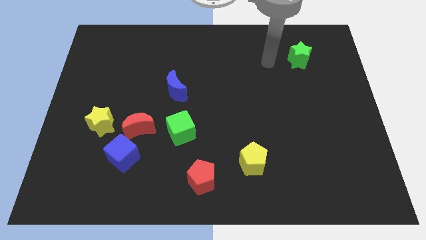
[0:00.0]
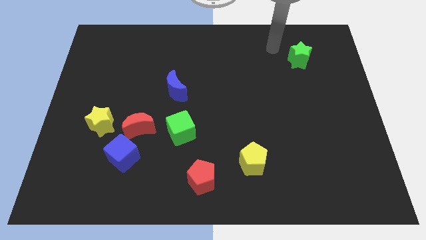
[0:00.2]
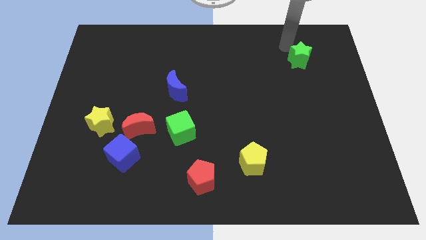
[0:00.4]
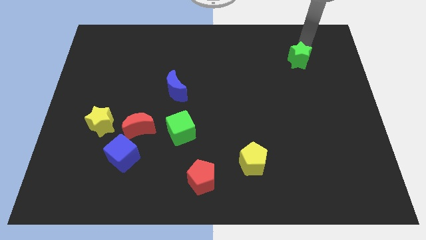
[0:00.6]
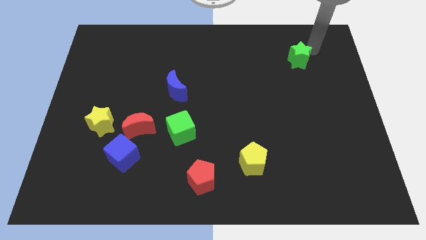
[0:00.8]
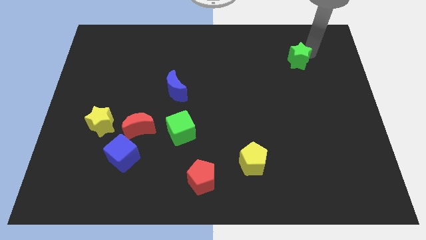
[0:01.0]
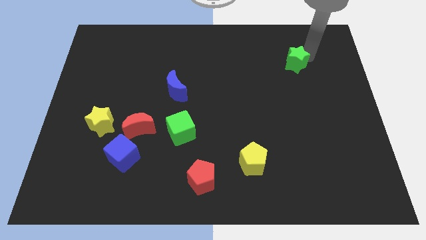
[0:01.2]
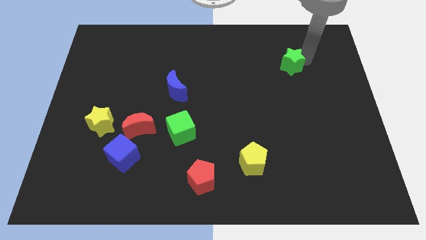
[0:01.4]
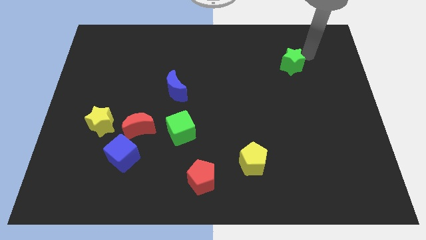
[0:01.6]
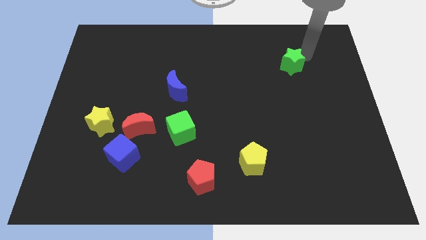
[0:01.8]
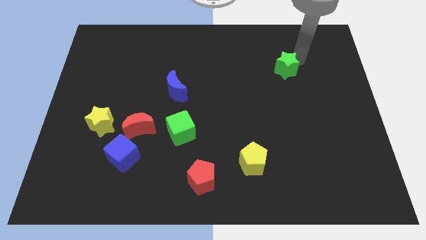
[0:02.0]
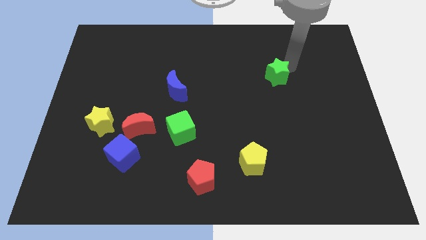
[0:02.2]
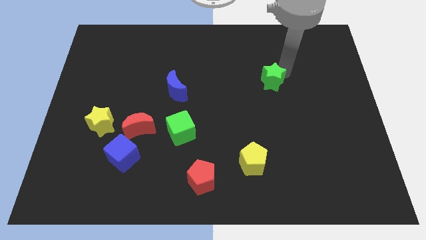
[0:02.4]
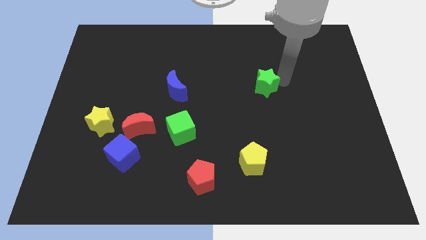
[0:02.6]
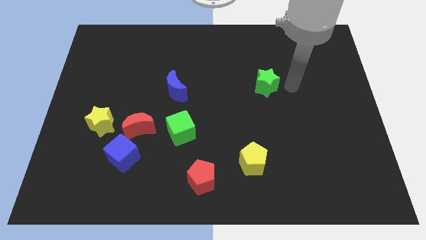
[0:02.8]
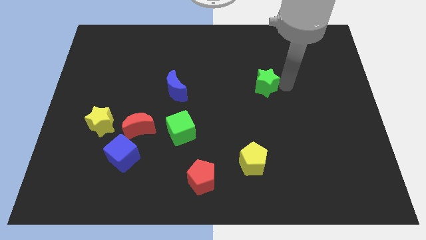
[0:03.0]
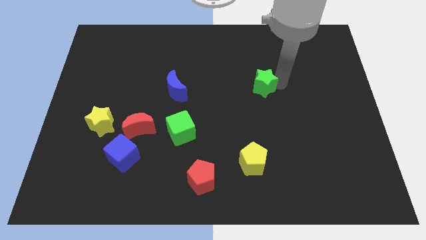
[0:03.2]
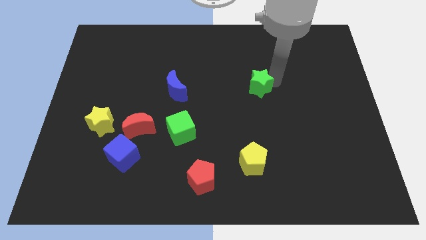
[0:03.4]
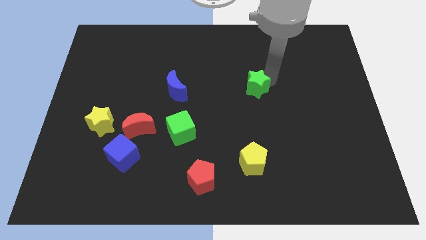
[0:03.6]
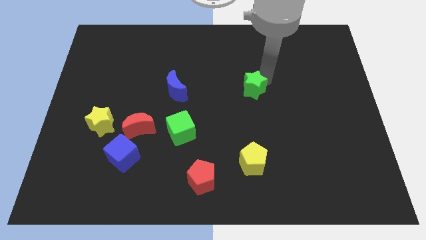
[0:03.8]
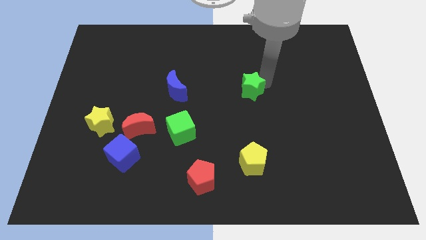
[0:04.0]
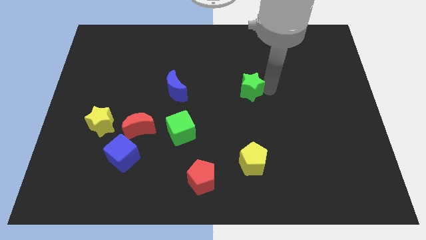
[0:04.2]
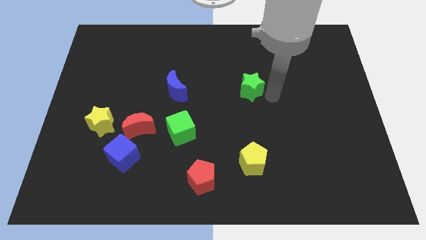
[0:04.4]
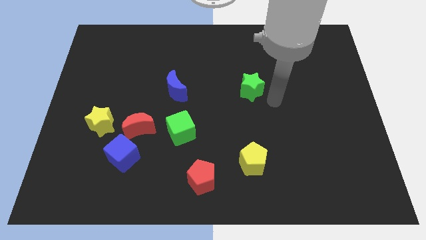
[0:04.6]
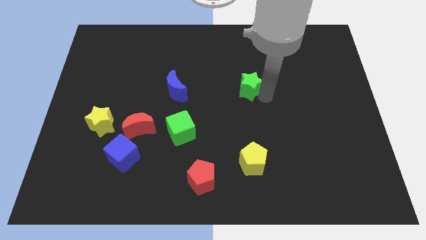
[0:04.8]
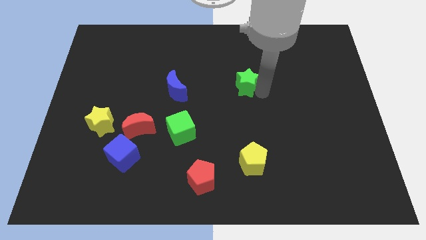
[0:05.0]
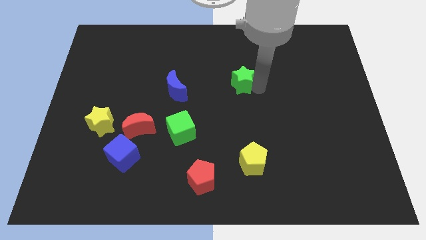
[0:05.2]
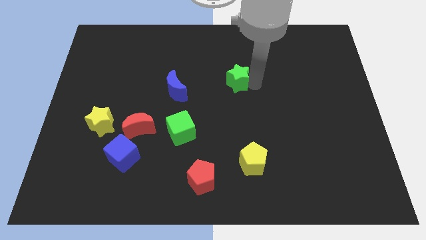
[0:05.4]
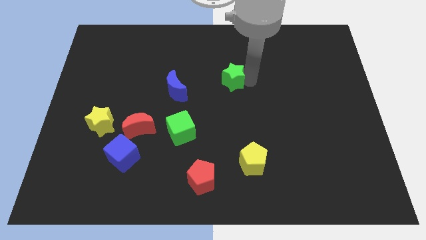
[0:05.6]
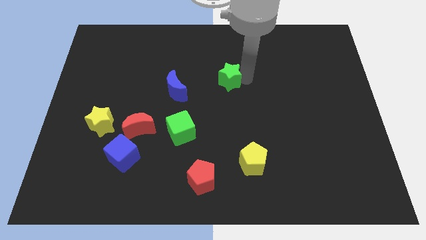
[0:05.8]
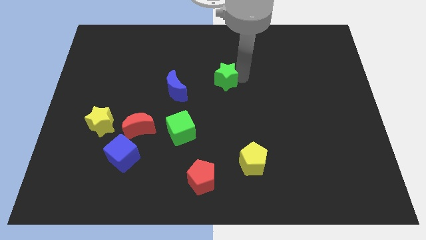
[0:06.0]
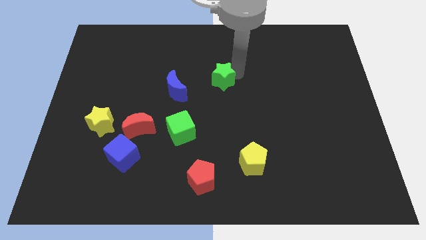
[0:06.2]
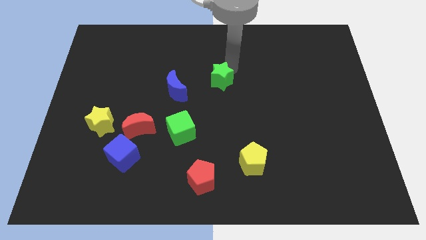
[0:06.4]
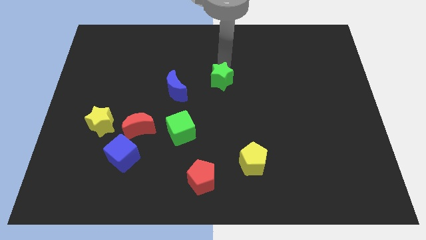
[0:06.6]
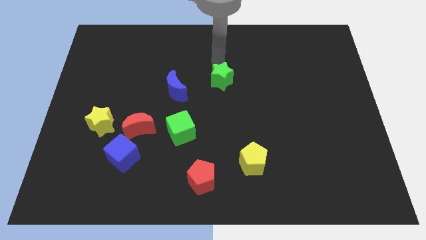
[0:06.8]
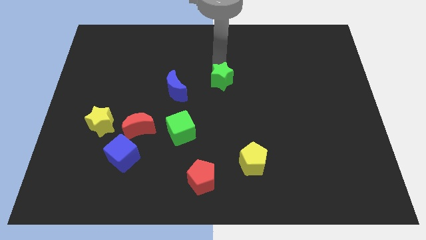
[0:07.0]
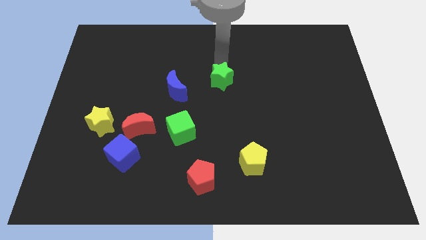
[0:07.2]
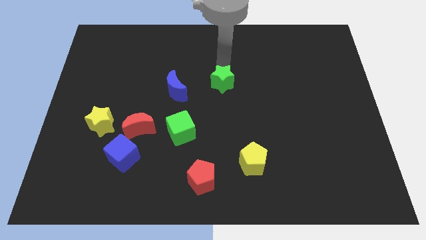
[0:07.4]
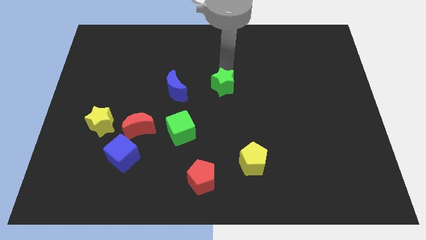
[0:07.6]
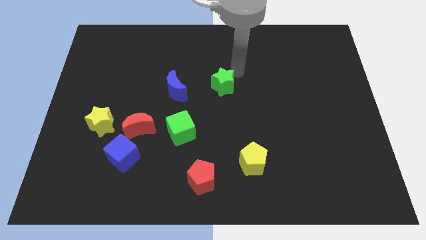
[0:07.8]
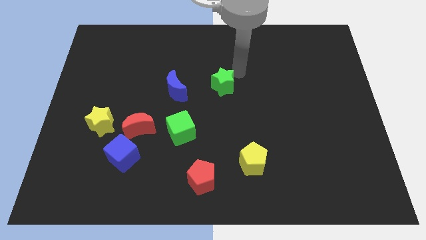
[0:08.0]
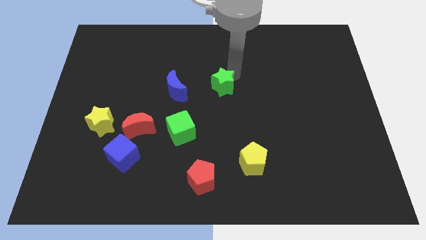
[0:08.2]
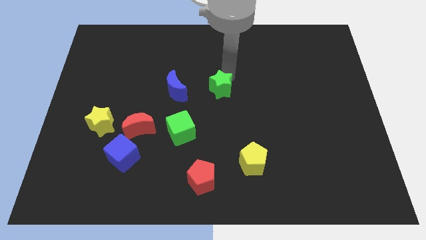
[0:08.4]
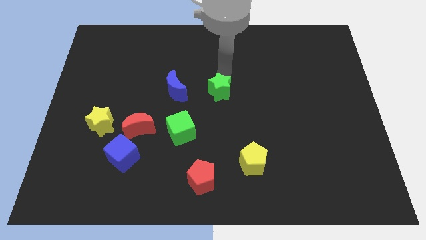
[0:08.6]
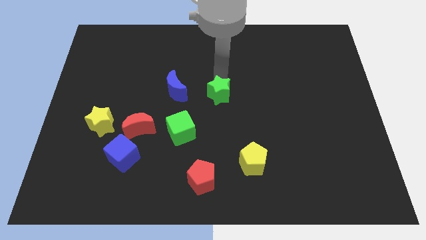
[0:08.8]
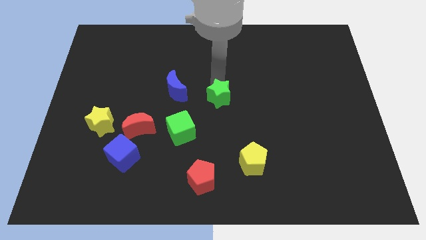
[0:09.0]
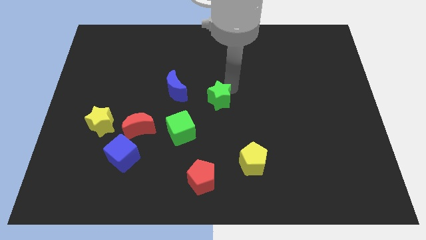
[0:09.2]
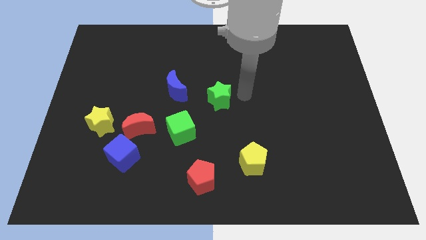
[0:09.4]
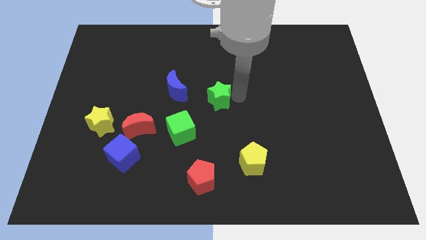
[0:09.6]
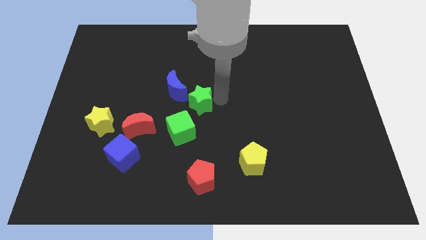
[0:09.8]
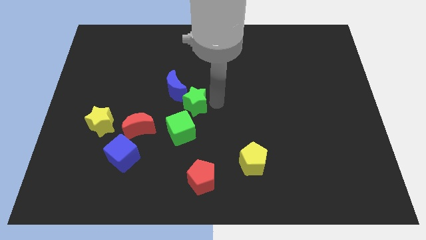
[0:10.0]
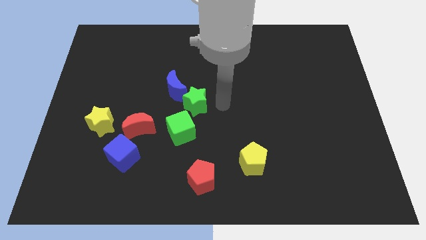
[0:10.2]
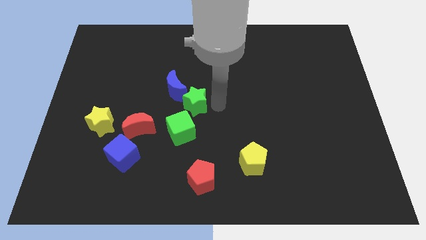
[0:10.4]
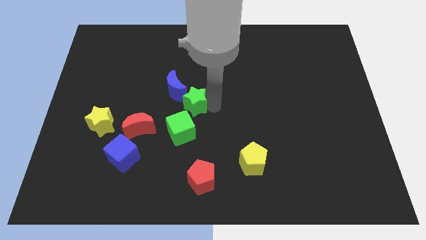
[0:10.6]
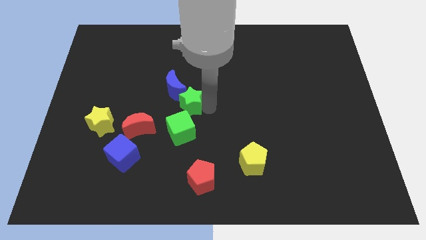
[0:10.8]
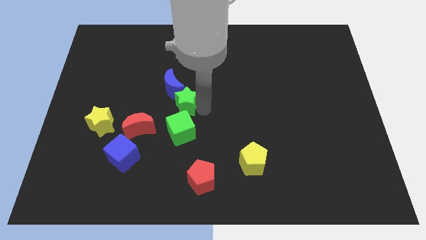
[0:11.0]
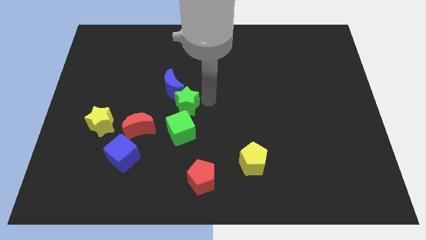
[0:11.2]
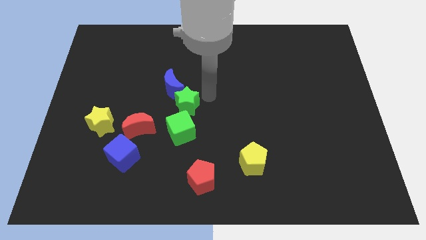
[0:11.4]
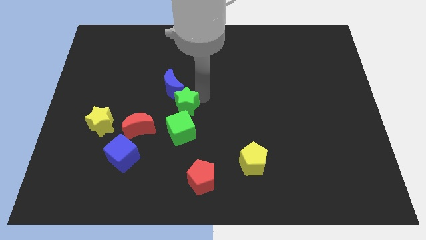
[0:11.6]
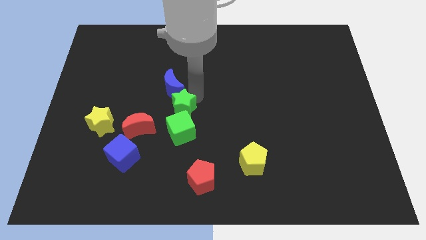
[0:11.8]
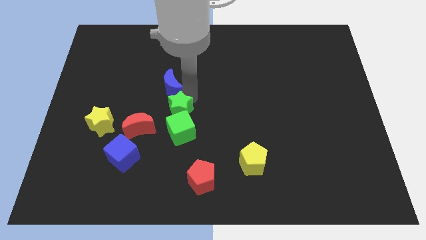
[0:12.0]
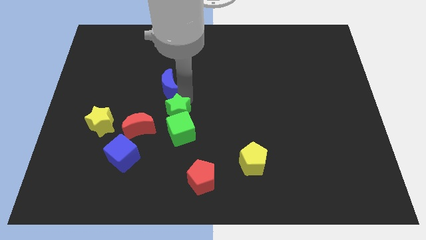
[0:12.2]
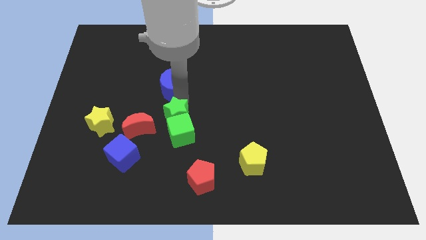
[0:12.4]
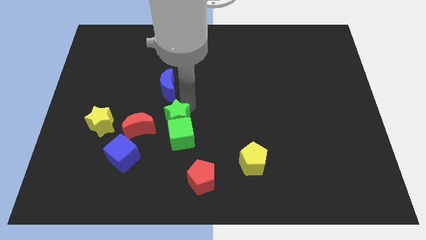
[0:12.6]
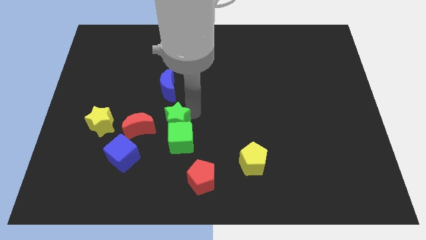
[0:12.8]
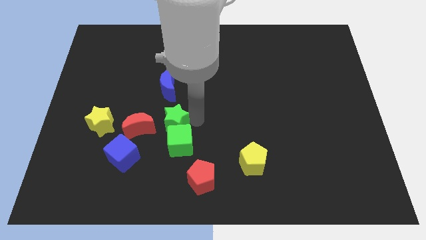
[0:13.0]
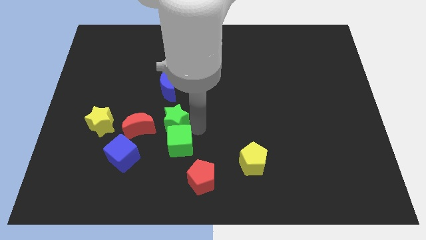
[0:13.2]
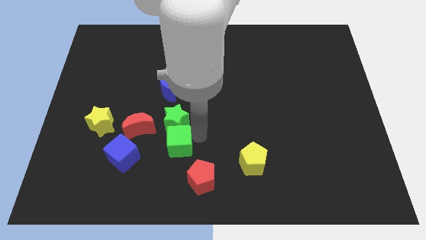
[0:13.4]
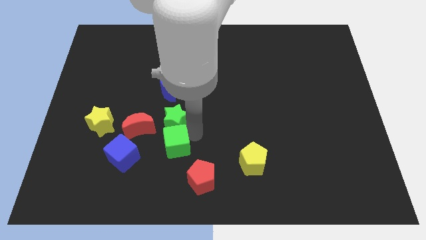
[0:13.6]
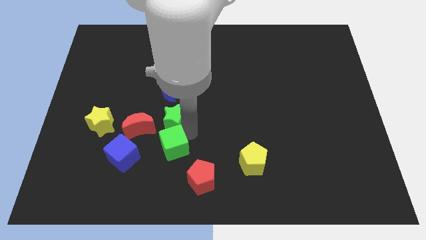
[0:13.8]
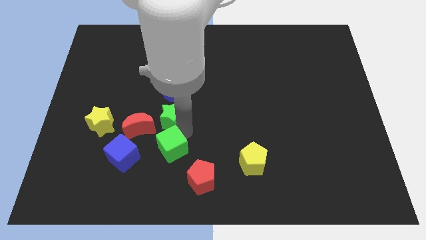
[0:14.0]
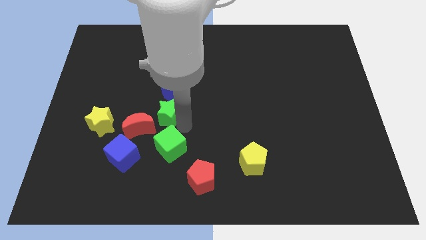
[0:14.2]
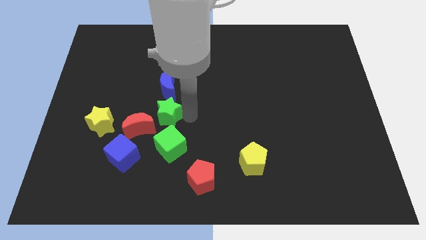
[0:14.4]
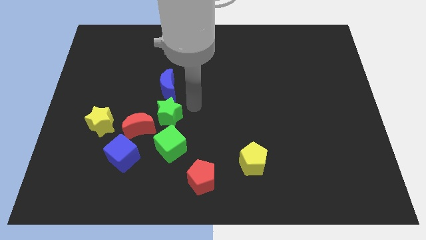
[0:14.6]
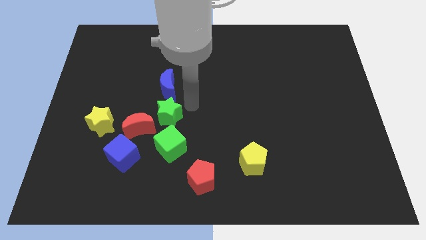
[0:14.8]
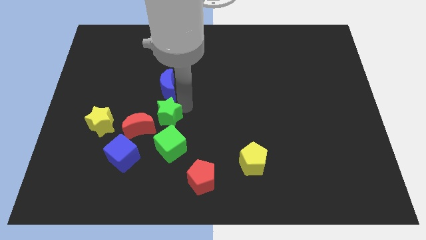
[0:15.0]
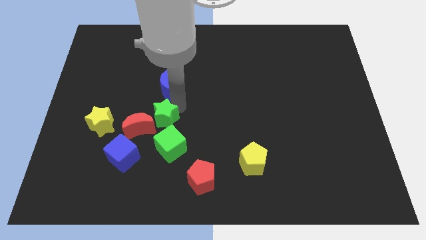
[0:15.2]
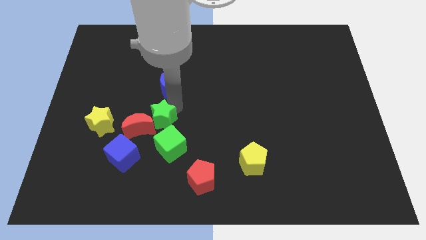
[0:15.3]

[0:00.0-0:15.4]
move the green star to the red moon
